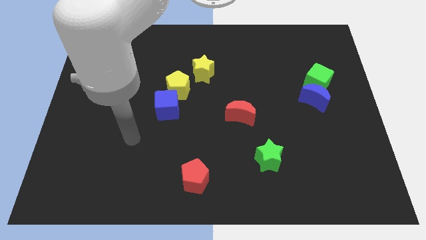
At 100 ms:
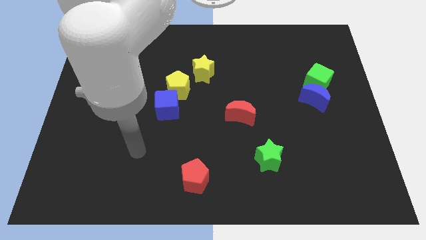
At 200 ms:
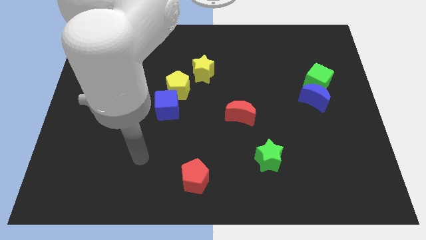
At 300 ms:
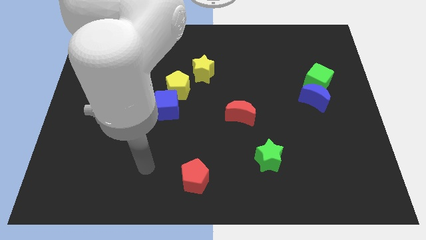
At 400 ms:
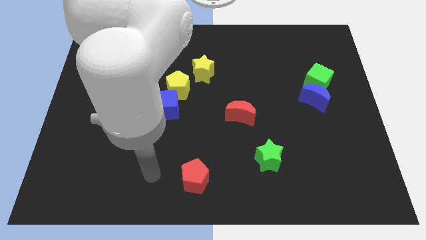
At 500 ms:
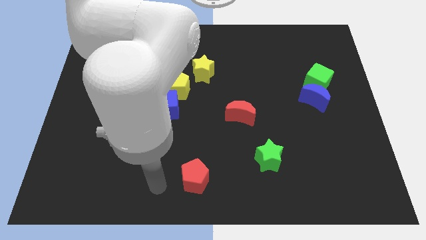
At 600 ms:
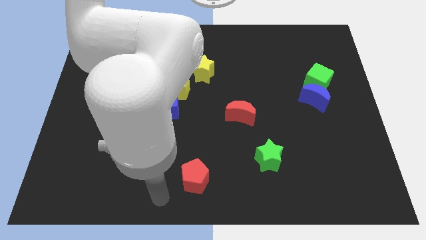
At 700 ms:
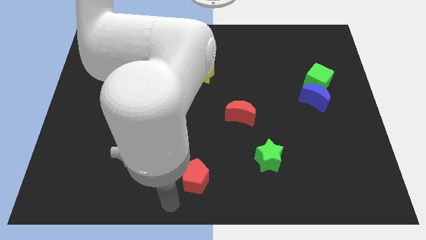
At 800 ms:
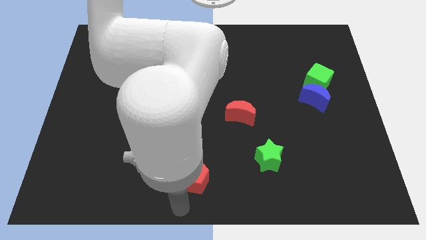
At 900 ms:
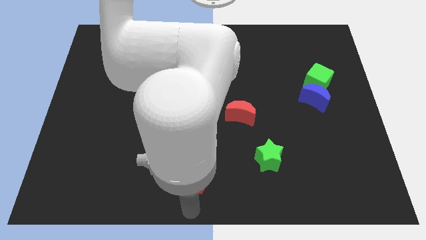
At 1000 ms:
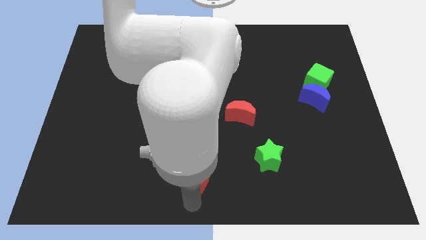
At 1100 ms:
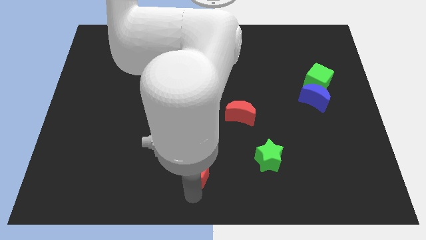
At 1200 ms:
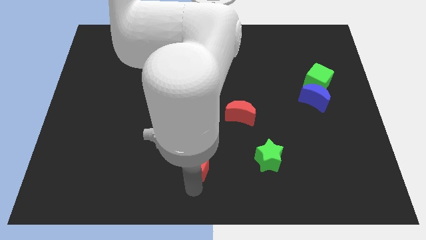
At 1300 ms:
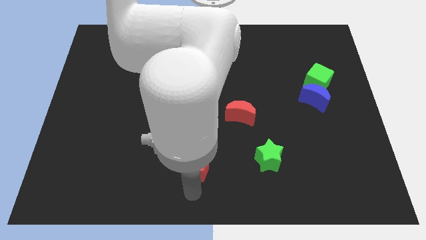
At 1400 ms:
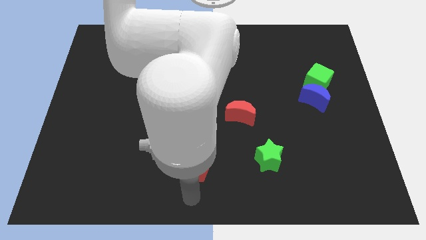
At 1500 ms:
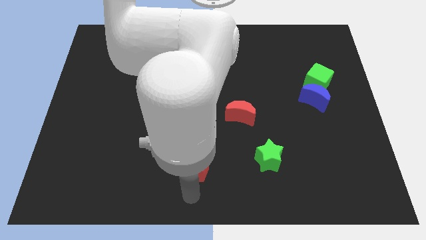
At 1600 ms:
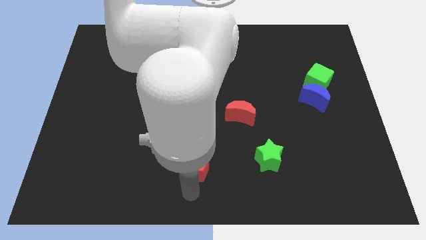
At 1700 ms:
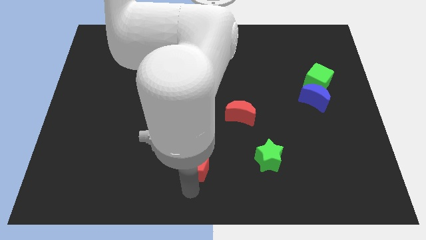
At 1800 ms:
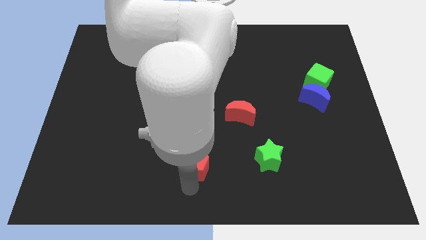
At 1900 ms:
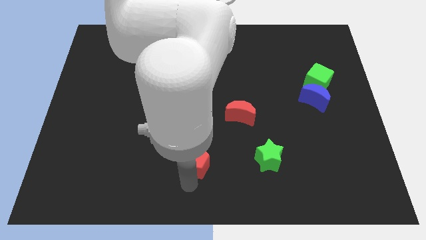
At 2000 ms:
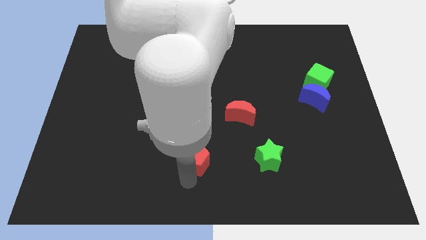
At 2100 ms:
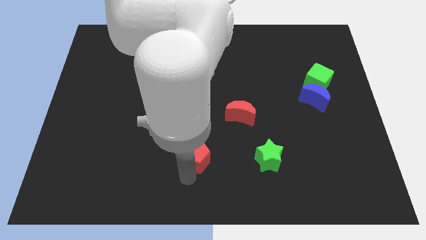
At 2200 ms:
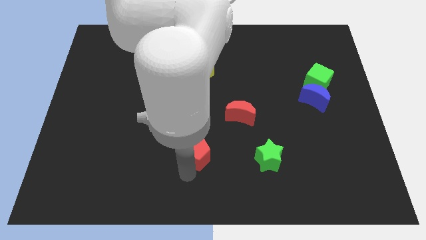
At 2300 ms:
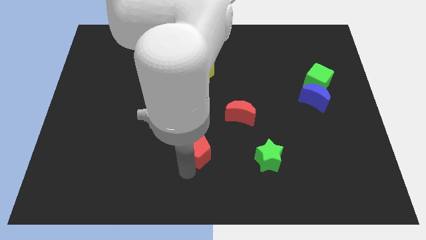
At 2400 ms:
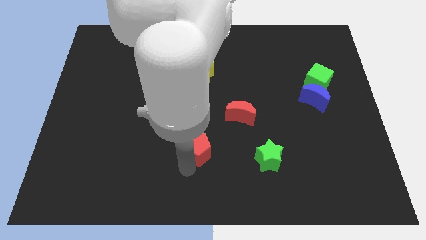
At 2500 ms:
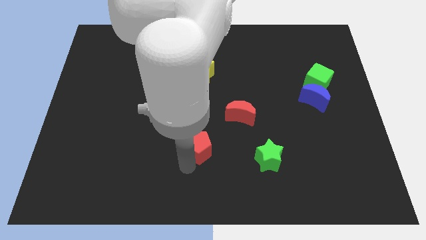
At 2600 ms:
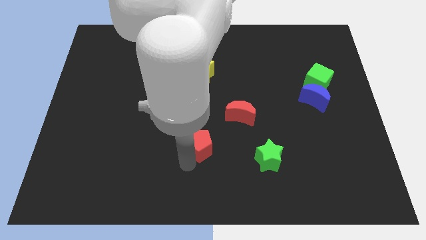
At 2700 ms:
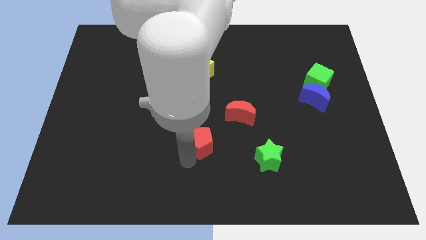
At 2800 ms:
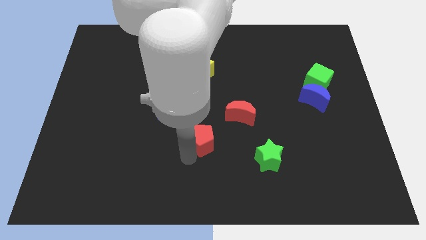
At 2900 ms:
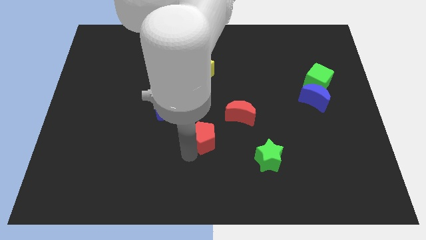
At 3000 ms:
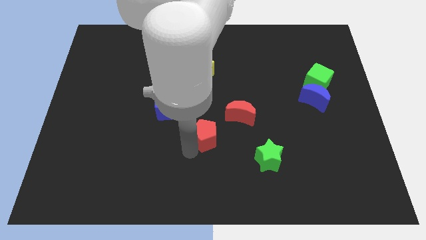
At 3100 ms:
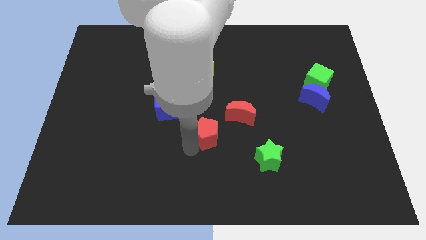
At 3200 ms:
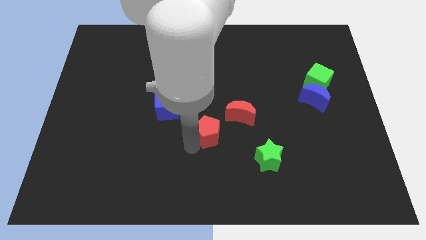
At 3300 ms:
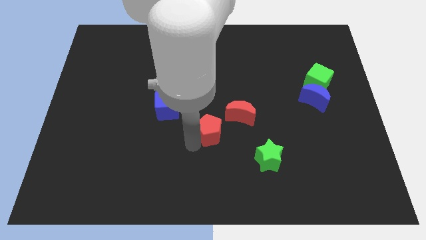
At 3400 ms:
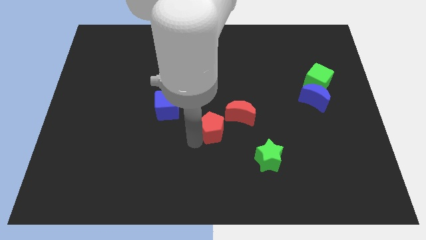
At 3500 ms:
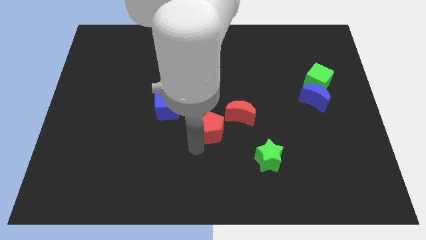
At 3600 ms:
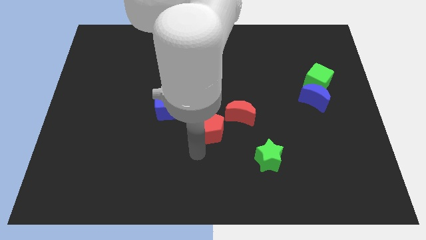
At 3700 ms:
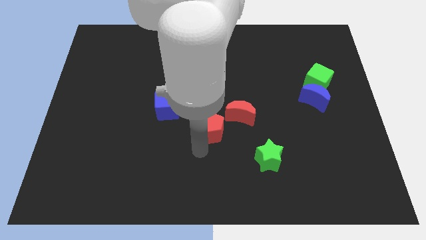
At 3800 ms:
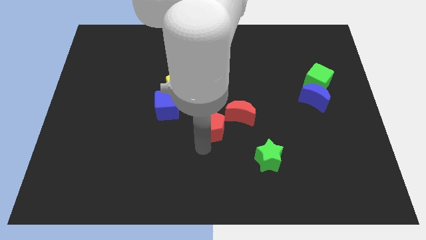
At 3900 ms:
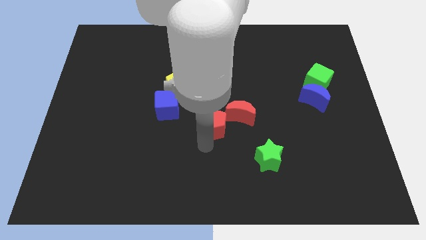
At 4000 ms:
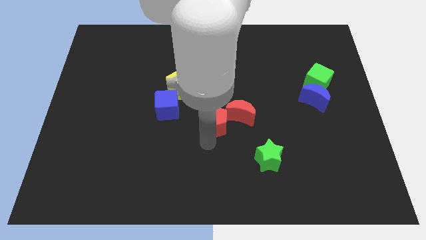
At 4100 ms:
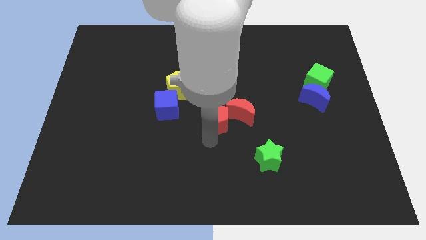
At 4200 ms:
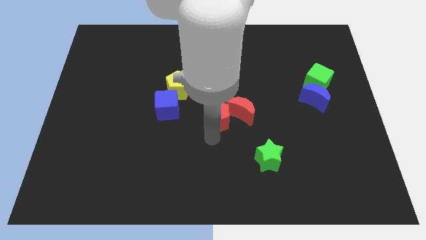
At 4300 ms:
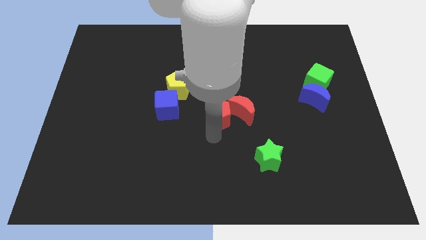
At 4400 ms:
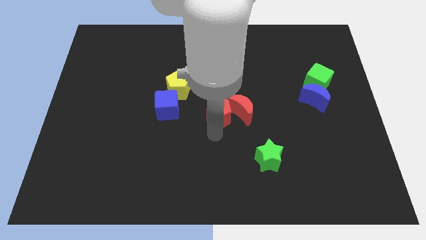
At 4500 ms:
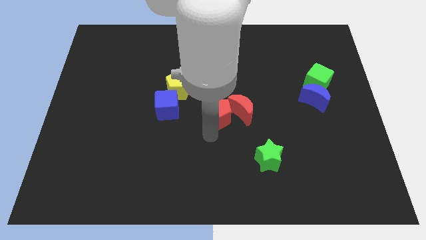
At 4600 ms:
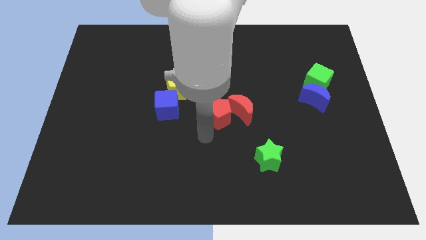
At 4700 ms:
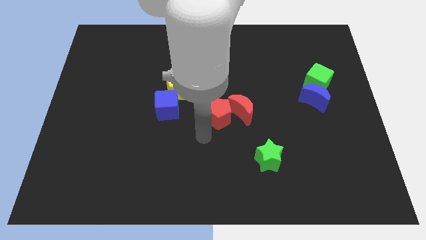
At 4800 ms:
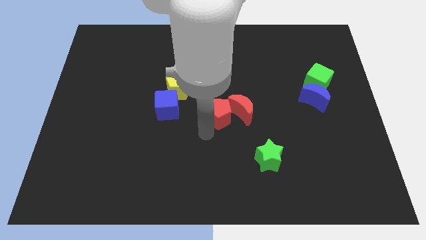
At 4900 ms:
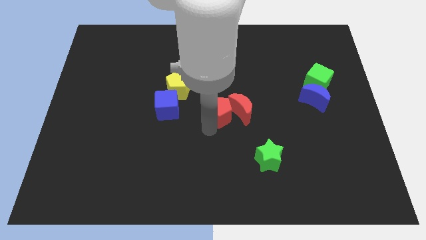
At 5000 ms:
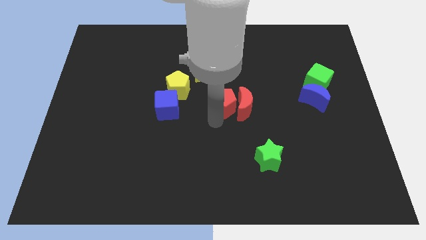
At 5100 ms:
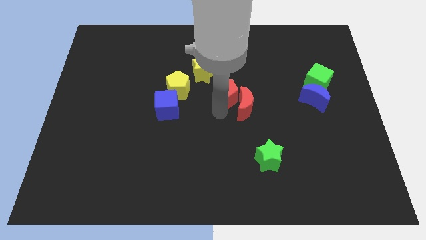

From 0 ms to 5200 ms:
move the red pentagon to the top side of the red moon

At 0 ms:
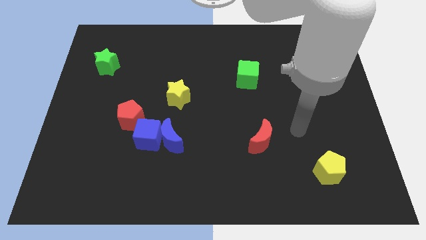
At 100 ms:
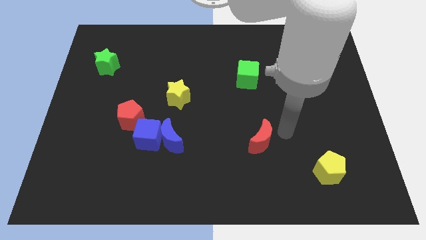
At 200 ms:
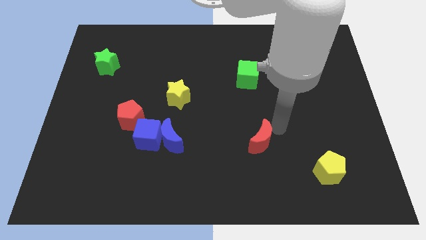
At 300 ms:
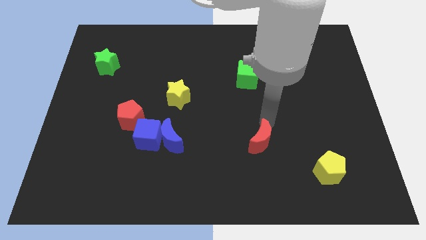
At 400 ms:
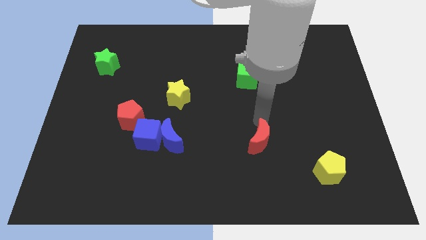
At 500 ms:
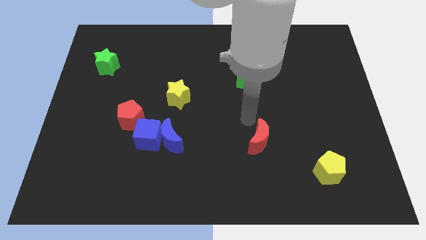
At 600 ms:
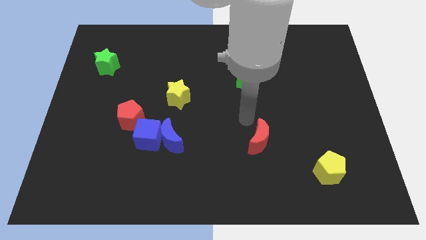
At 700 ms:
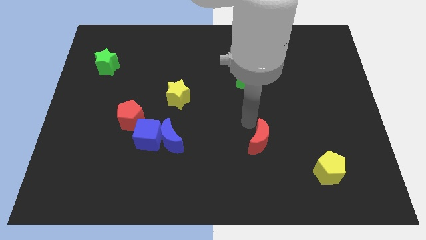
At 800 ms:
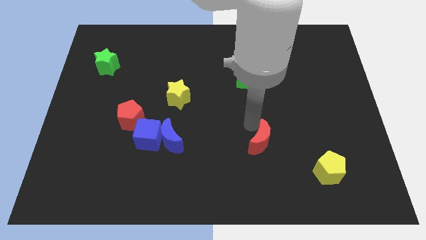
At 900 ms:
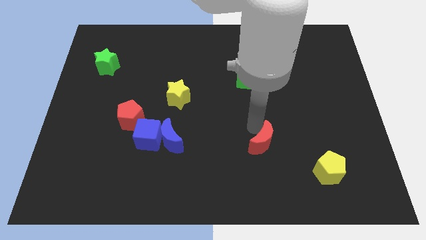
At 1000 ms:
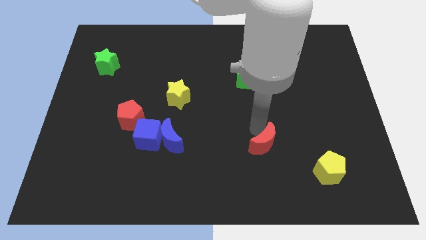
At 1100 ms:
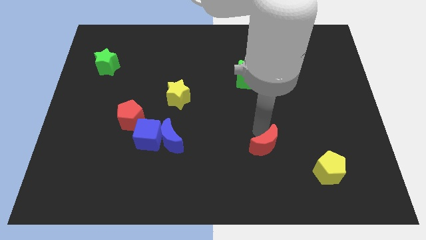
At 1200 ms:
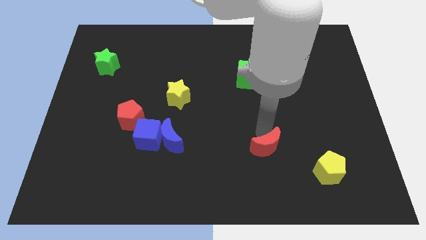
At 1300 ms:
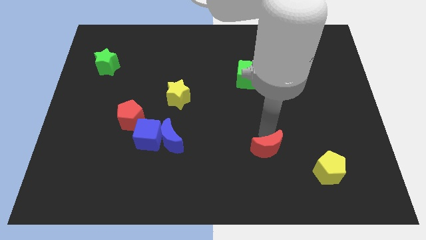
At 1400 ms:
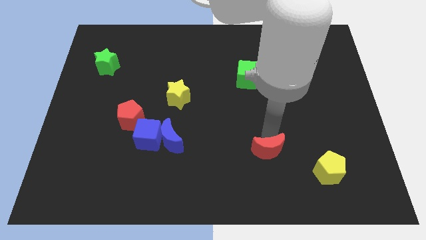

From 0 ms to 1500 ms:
slide the red moon to the left of the yellow pentagon

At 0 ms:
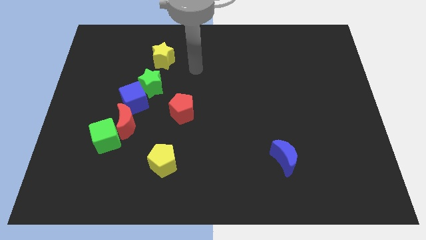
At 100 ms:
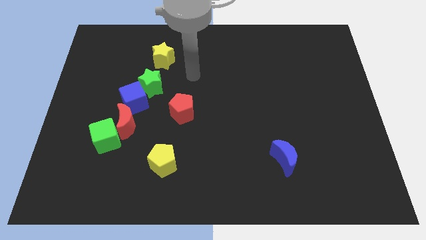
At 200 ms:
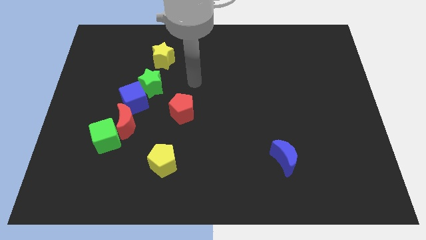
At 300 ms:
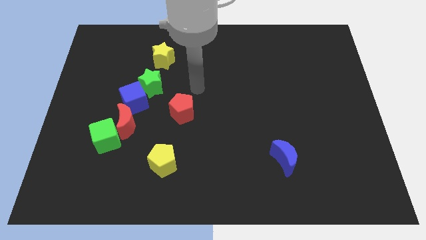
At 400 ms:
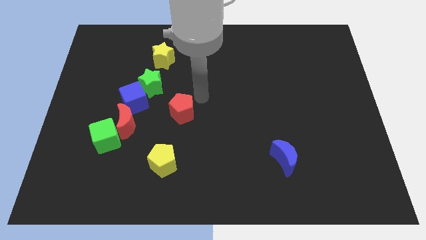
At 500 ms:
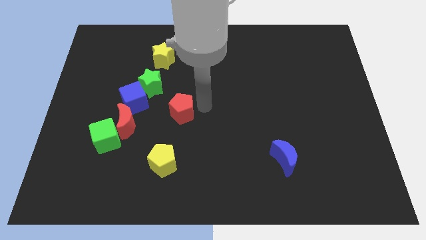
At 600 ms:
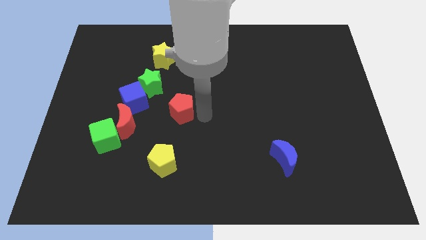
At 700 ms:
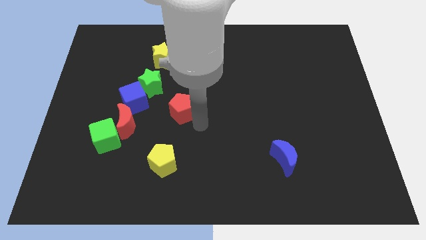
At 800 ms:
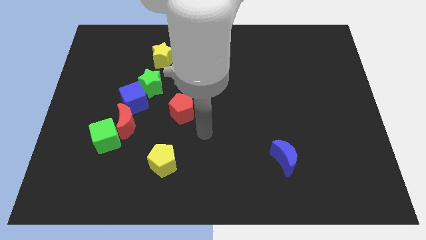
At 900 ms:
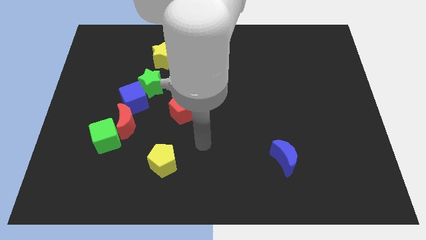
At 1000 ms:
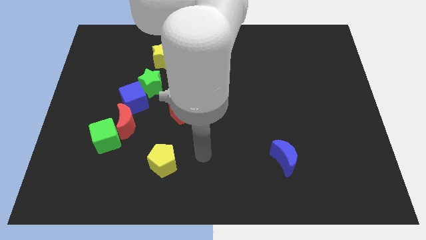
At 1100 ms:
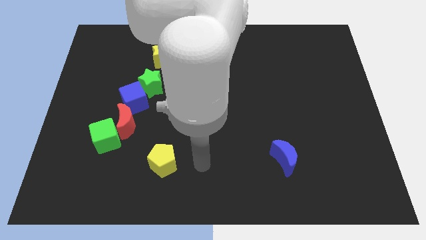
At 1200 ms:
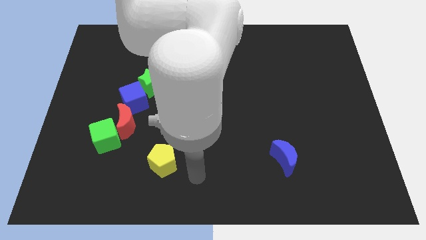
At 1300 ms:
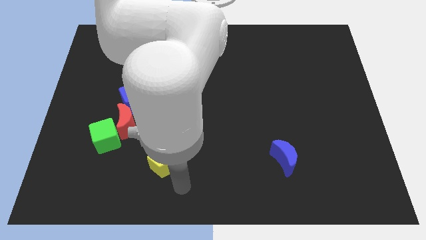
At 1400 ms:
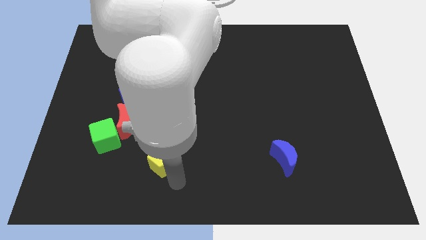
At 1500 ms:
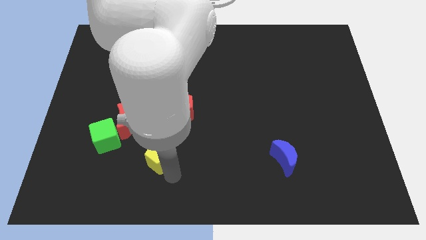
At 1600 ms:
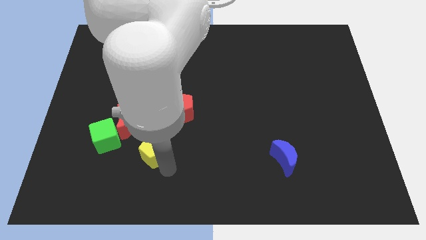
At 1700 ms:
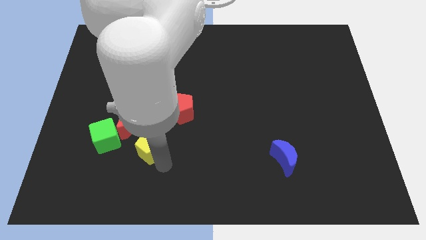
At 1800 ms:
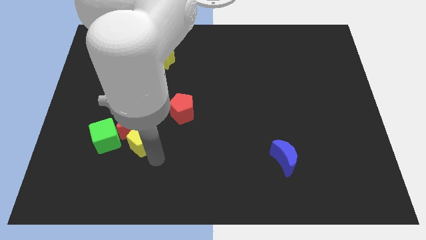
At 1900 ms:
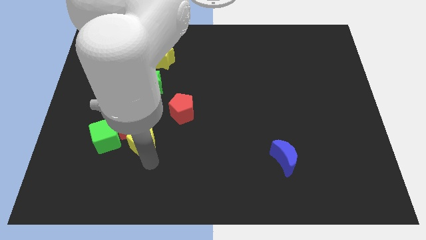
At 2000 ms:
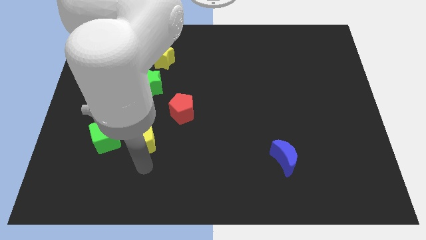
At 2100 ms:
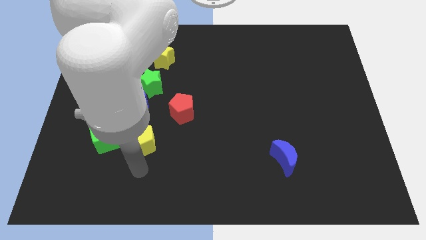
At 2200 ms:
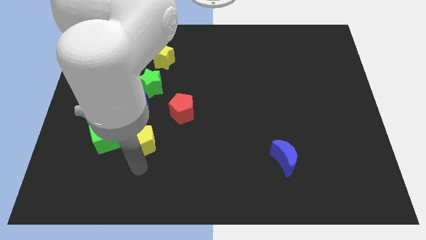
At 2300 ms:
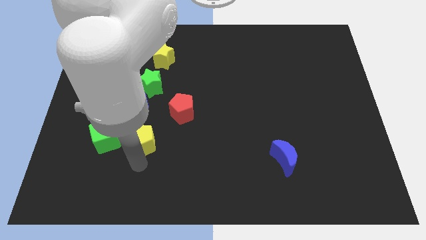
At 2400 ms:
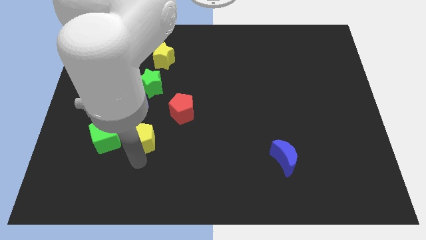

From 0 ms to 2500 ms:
move the yellow pentagon to the bottom of the green star
